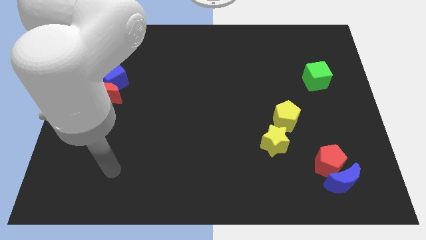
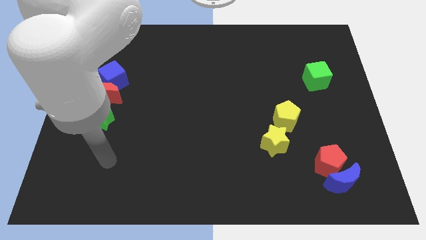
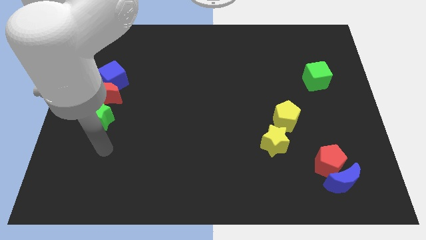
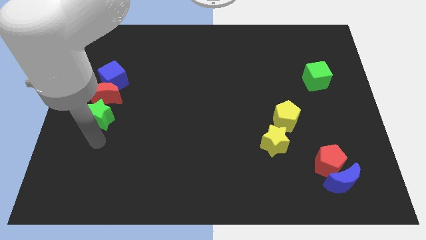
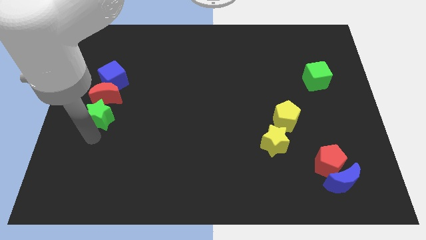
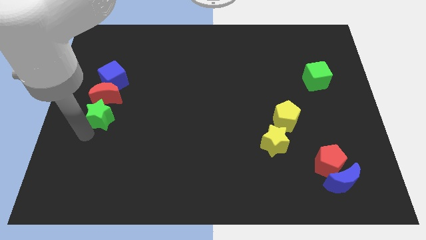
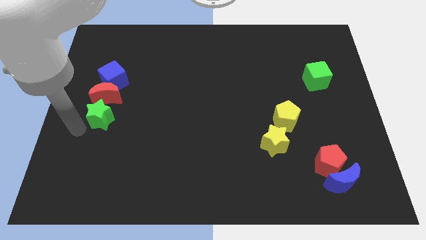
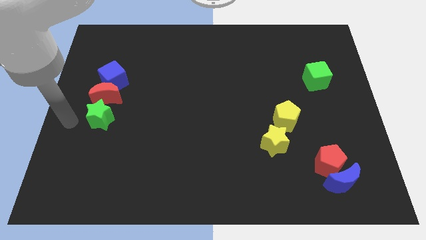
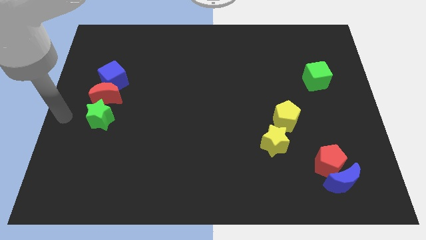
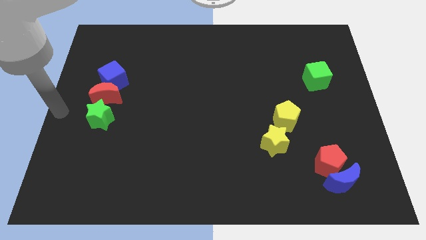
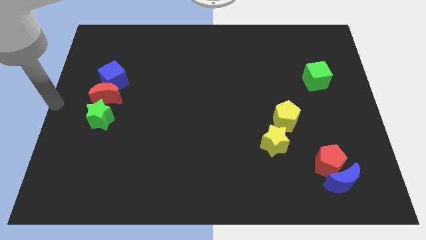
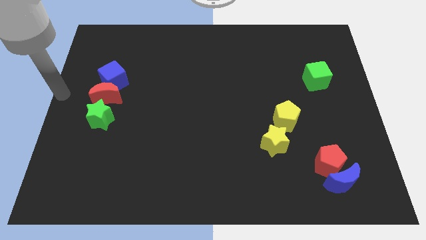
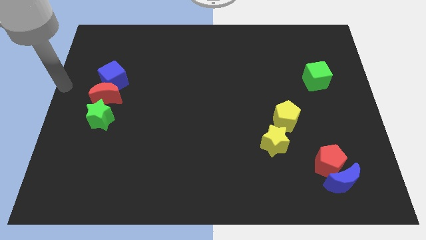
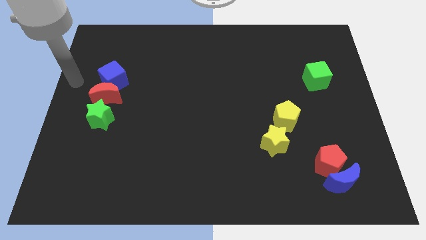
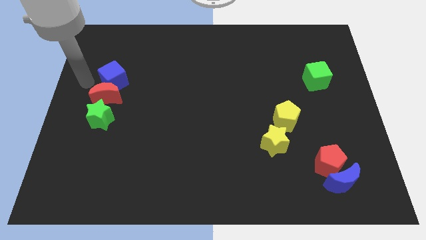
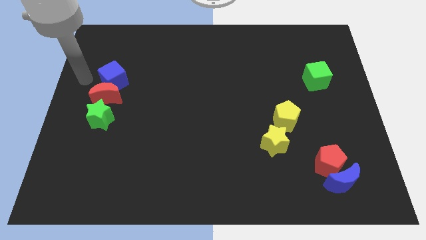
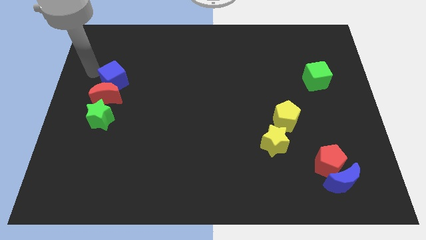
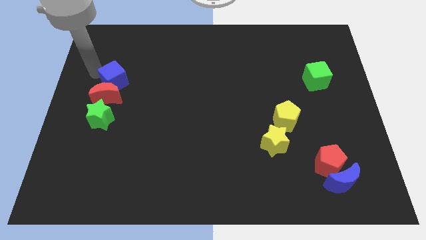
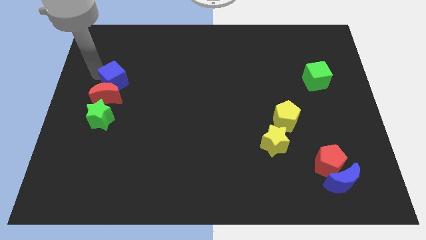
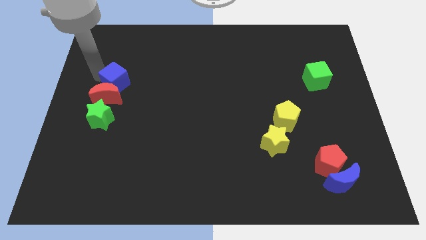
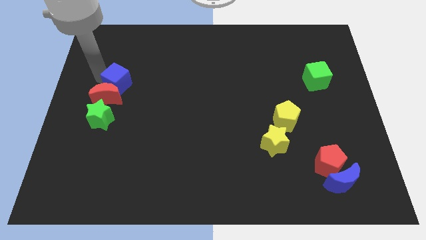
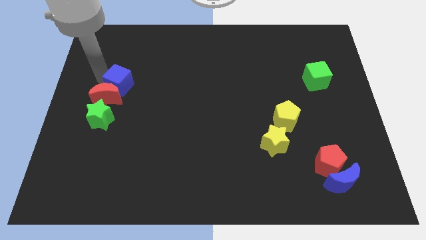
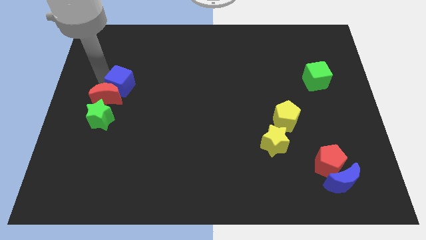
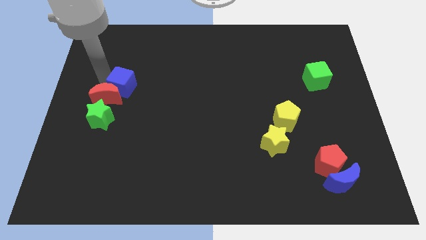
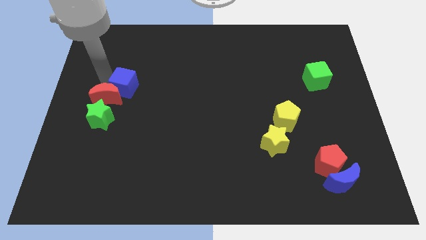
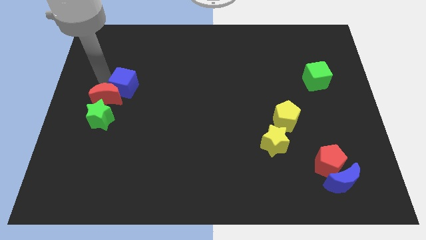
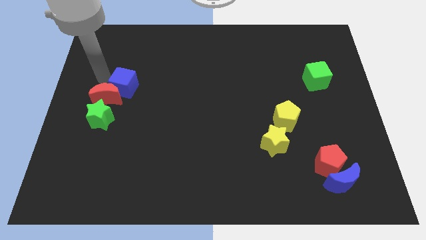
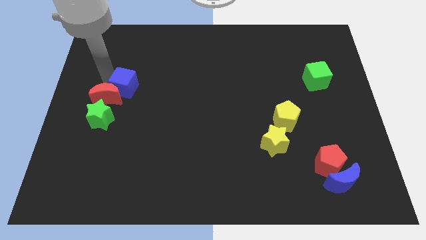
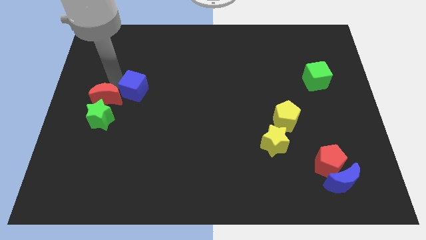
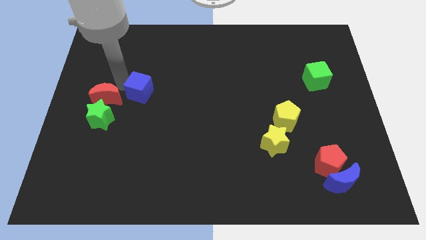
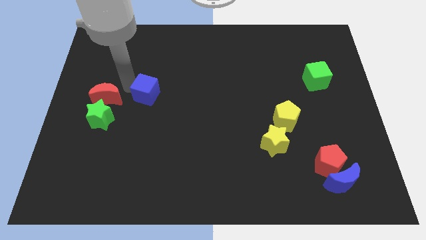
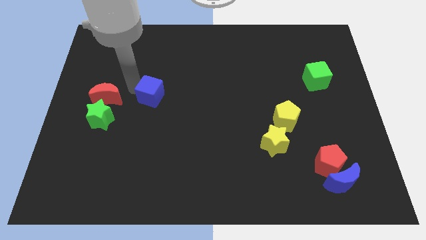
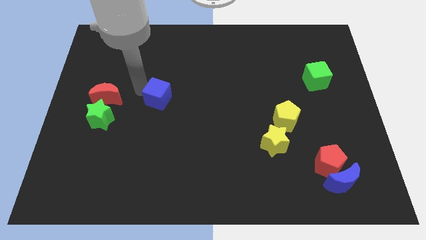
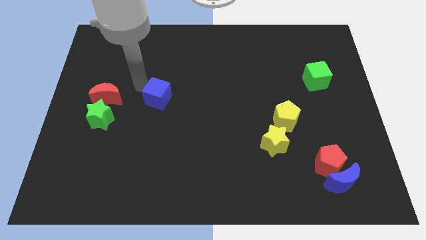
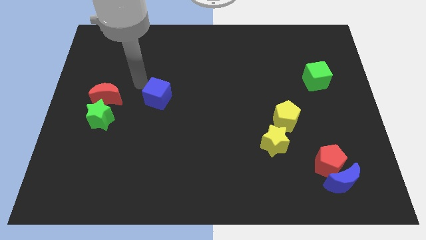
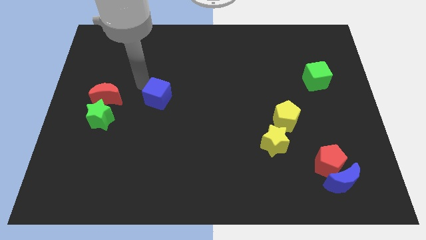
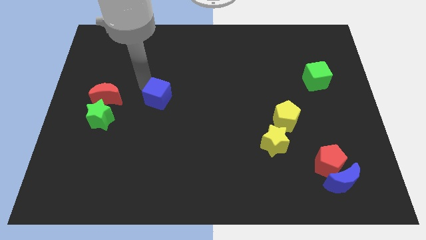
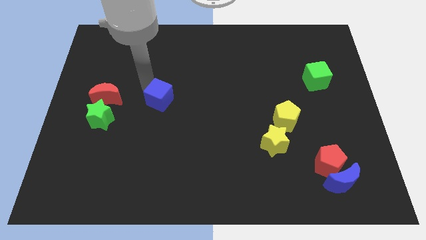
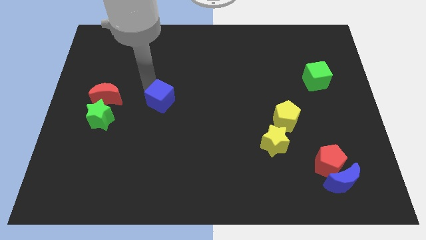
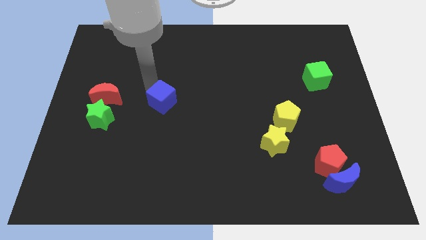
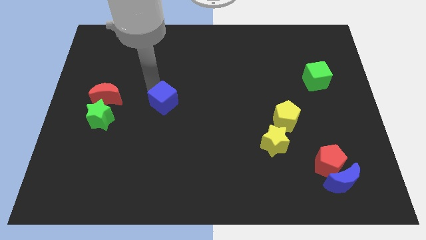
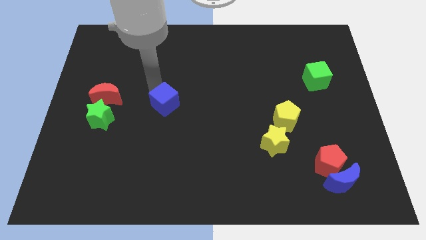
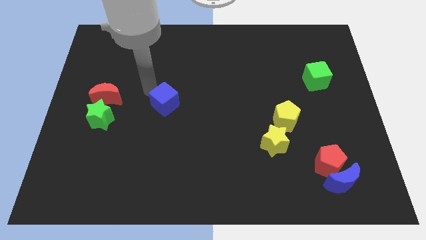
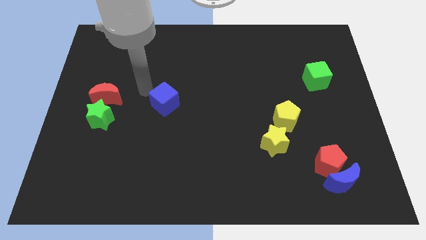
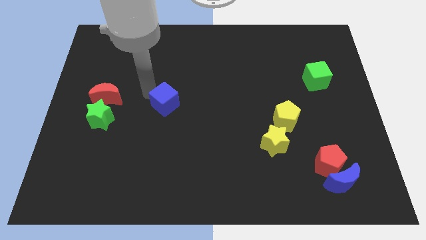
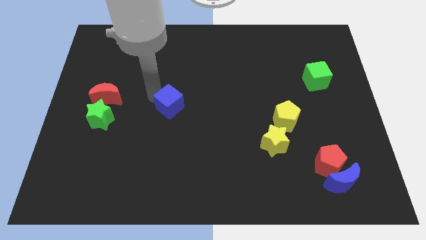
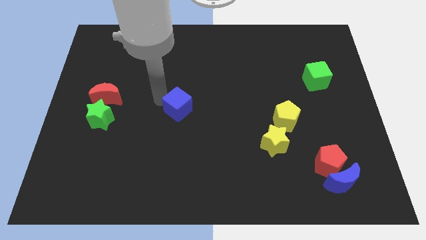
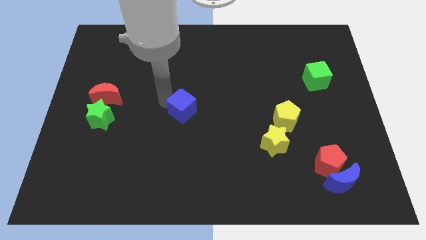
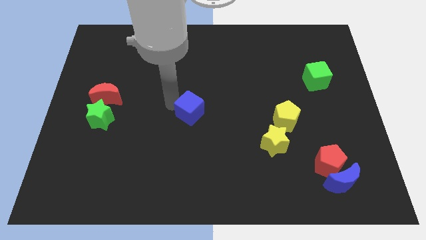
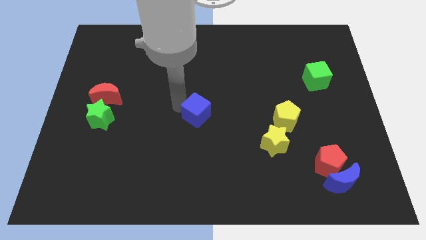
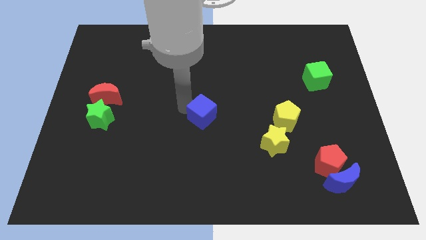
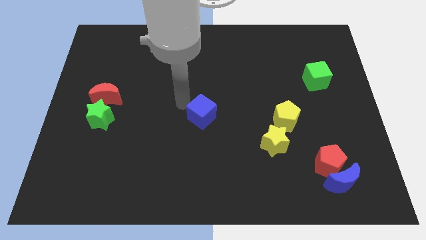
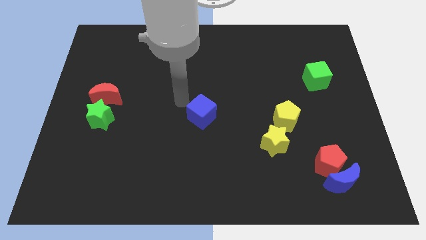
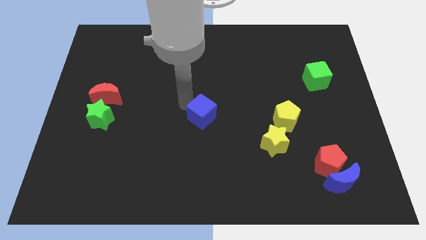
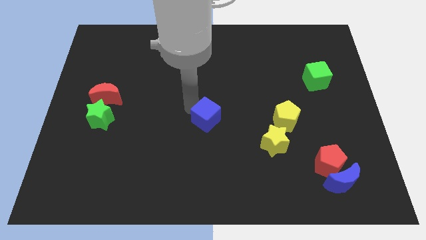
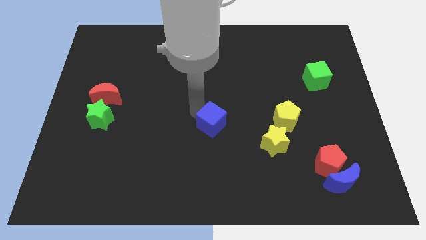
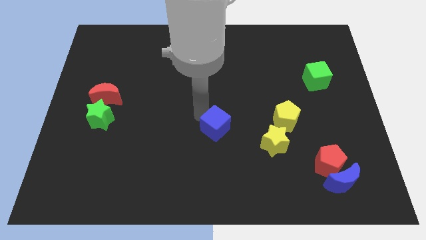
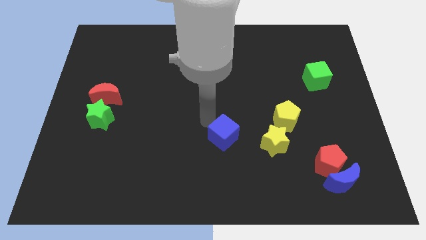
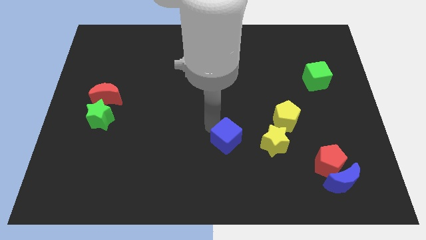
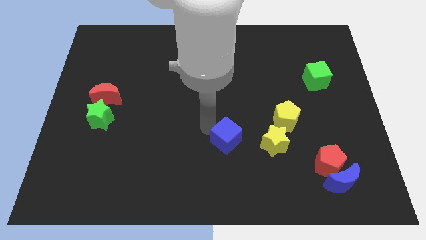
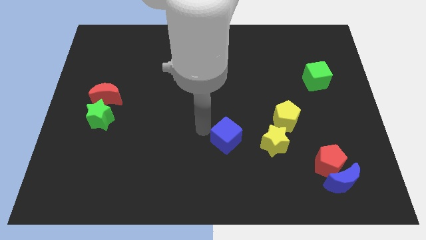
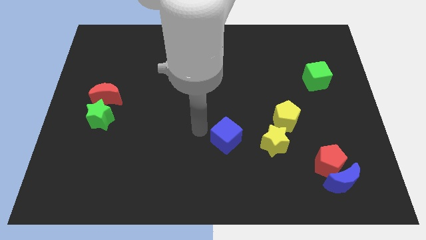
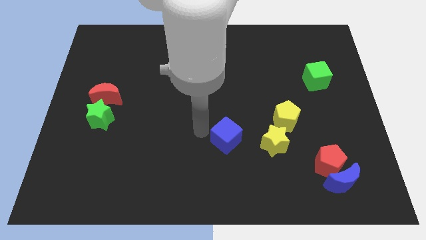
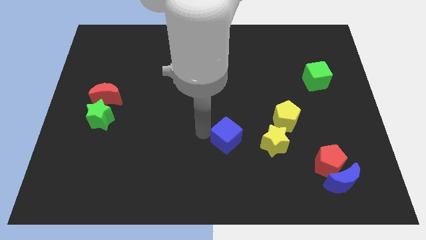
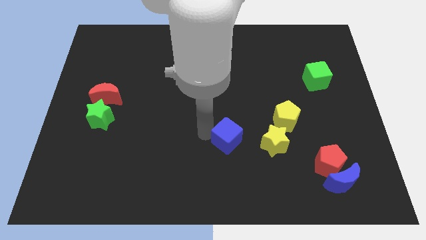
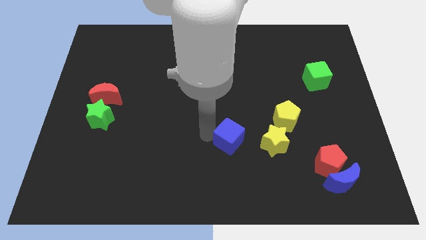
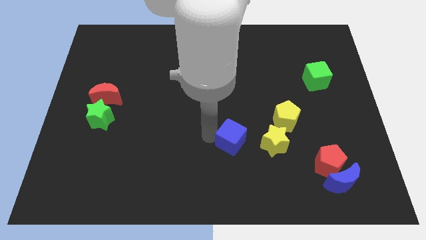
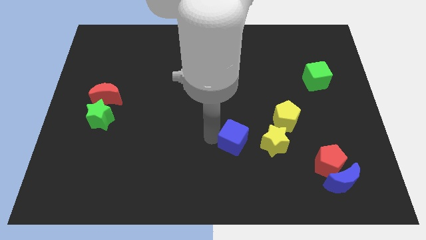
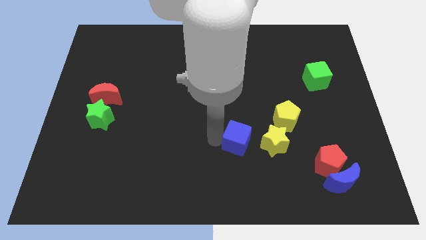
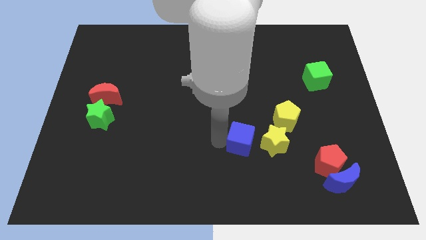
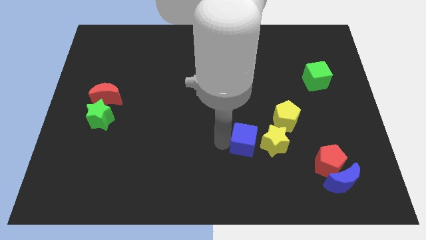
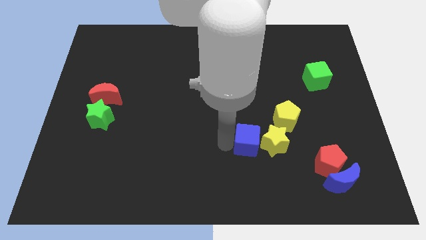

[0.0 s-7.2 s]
push the blue cube to the yellow star
